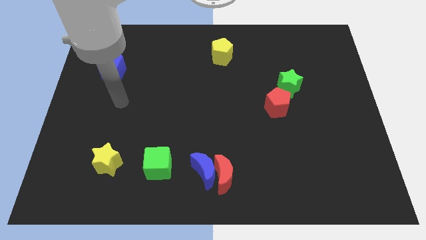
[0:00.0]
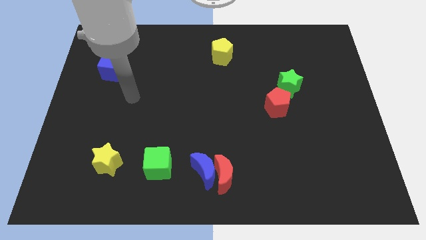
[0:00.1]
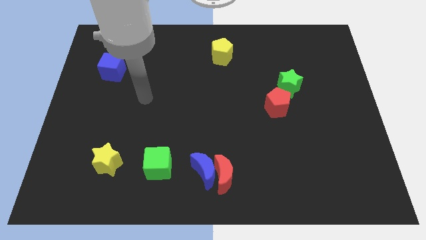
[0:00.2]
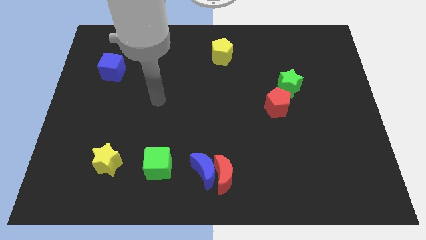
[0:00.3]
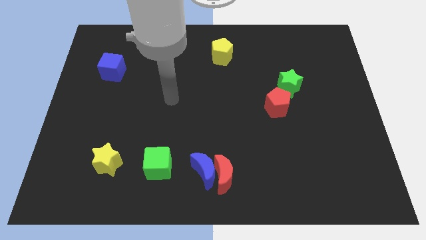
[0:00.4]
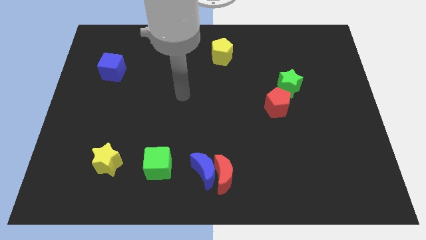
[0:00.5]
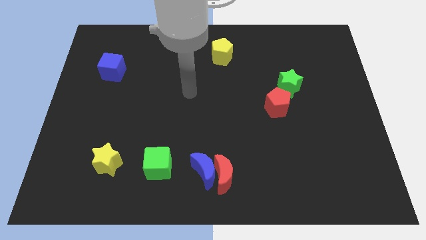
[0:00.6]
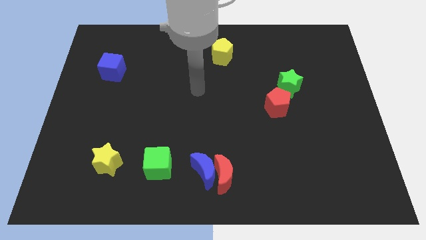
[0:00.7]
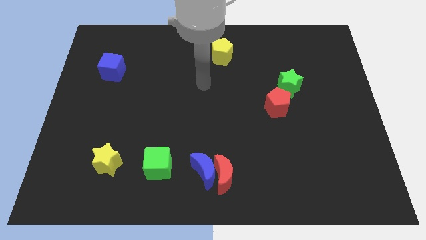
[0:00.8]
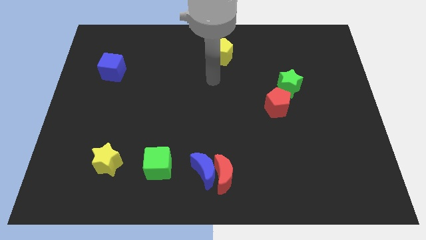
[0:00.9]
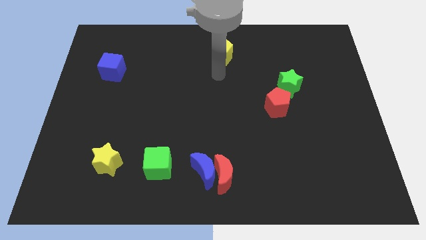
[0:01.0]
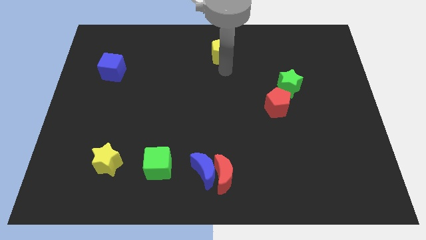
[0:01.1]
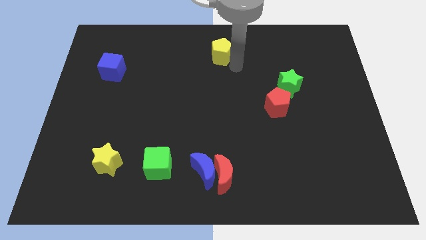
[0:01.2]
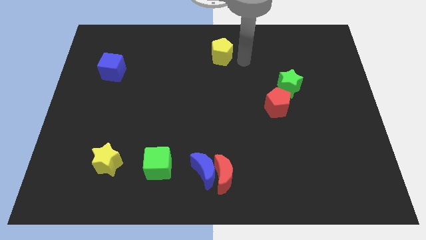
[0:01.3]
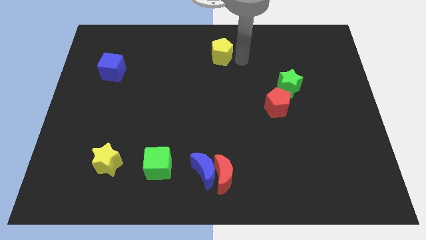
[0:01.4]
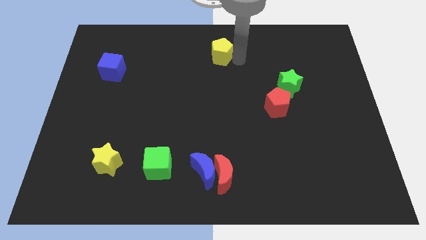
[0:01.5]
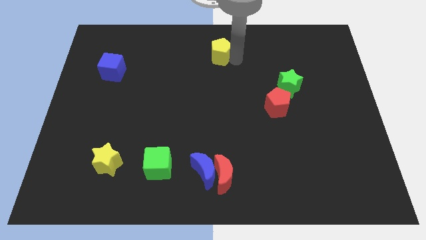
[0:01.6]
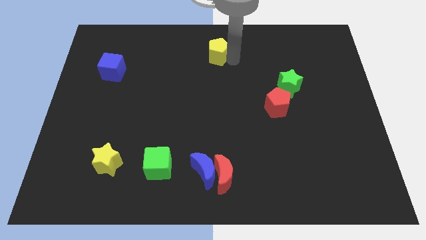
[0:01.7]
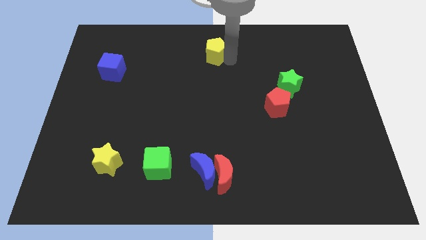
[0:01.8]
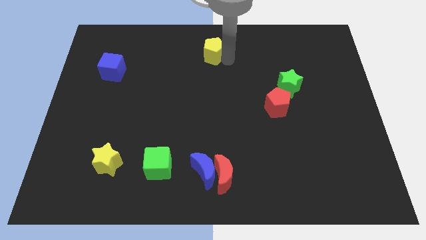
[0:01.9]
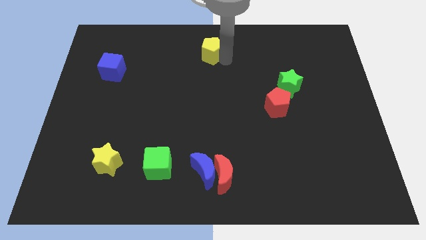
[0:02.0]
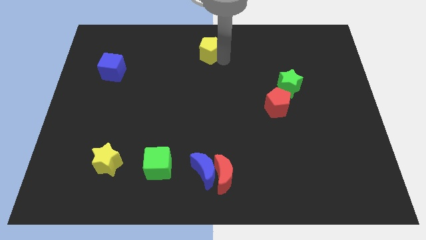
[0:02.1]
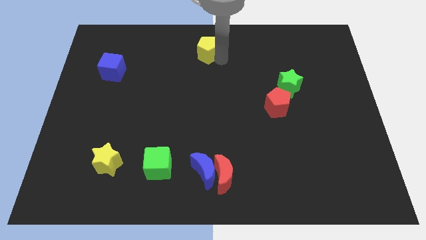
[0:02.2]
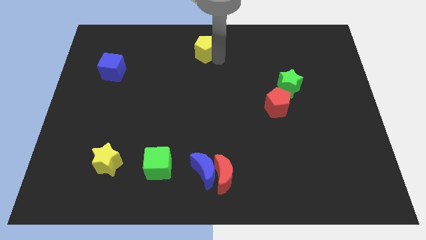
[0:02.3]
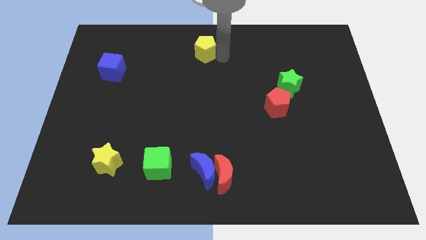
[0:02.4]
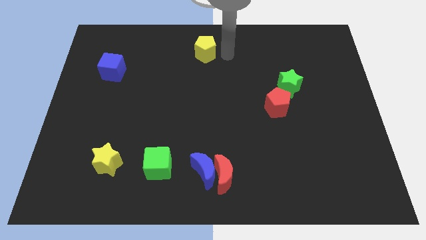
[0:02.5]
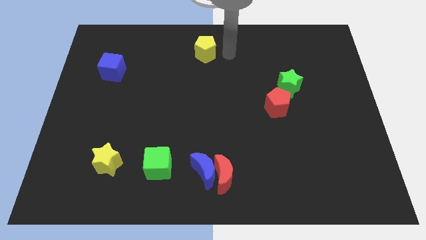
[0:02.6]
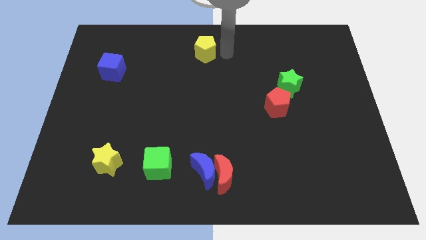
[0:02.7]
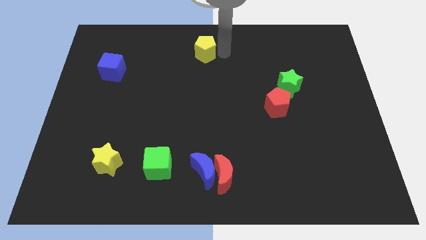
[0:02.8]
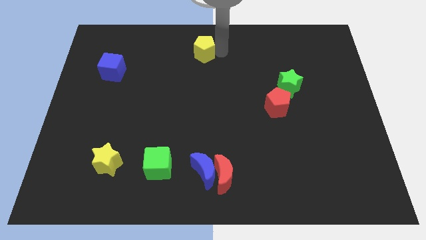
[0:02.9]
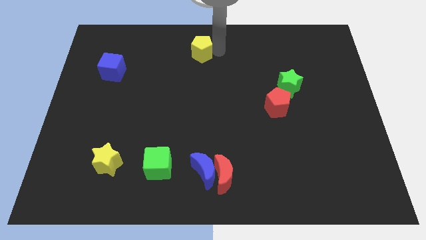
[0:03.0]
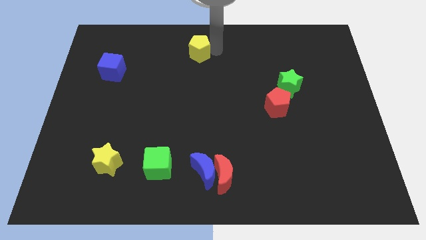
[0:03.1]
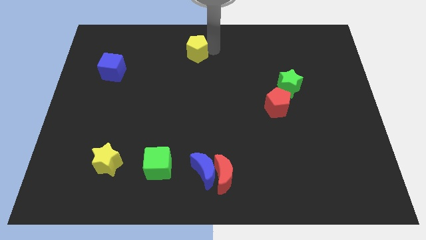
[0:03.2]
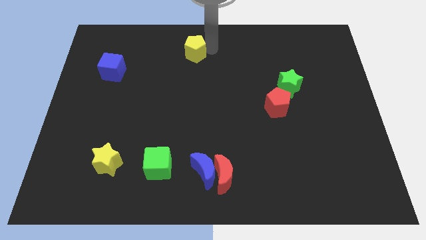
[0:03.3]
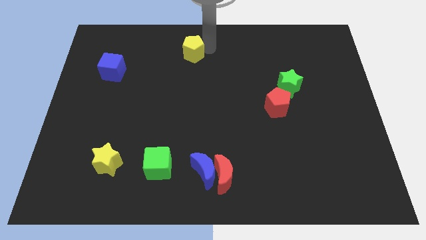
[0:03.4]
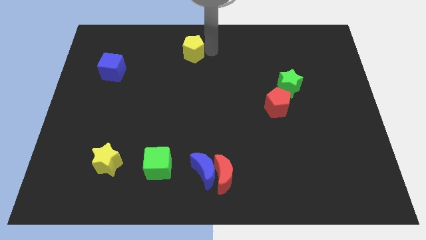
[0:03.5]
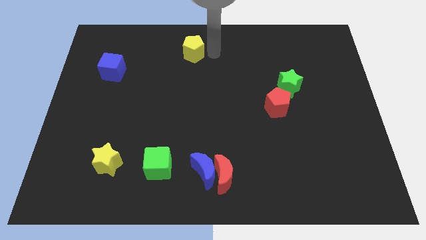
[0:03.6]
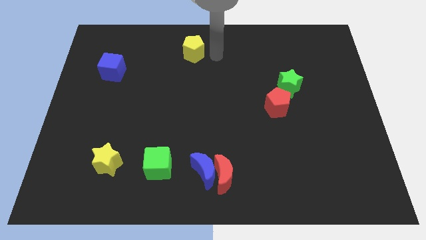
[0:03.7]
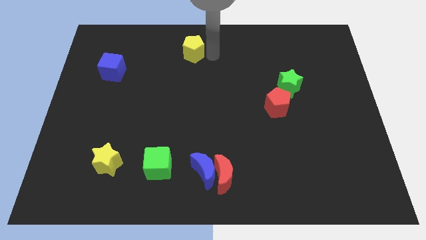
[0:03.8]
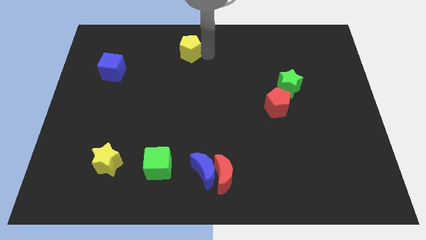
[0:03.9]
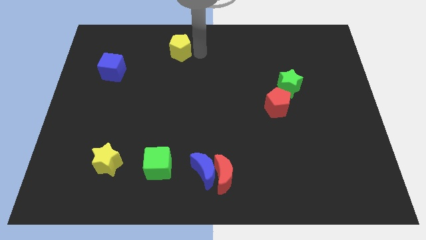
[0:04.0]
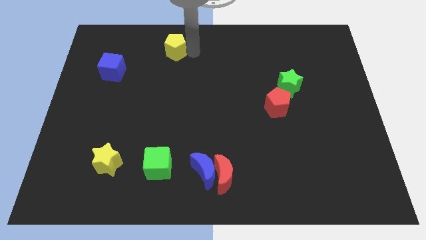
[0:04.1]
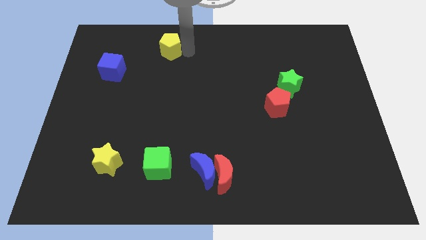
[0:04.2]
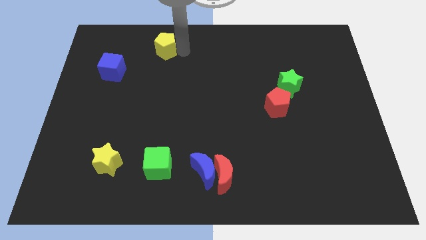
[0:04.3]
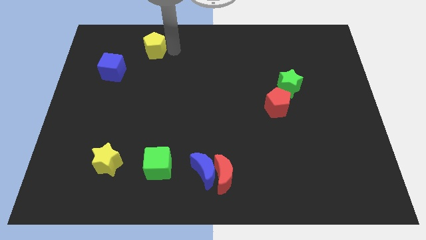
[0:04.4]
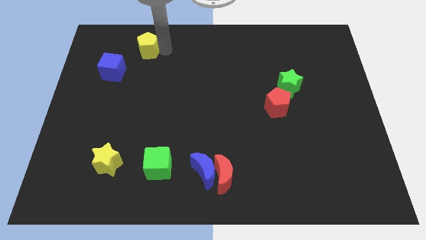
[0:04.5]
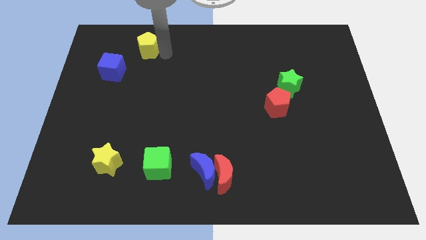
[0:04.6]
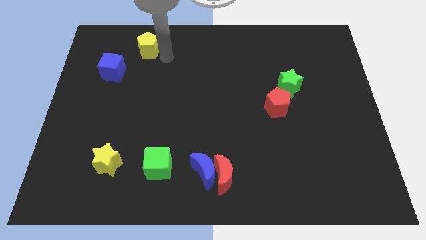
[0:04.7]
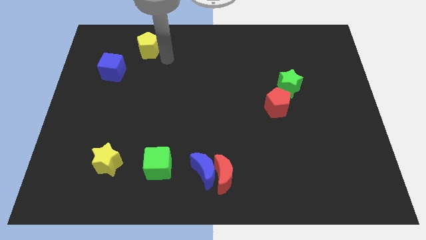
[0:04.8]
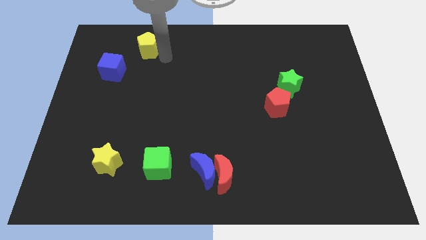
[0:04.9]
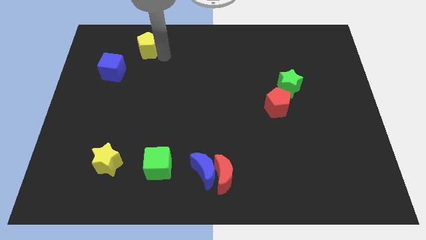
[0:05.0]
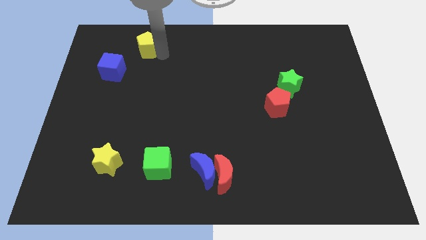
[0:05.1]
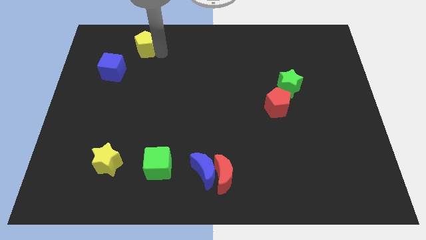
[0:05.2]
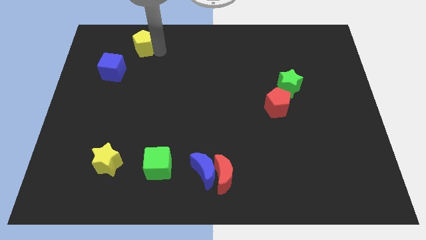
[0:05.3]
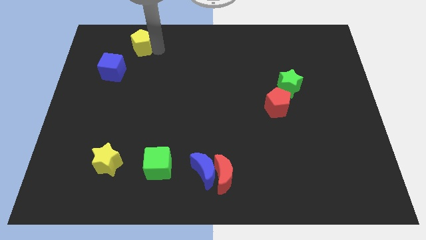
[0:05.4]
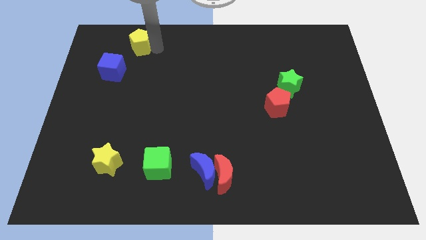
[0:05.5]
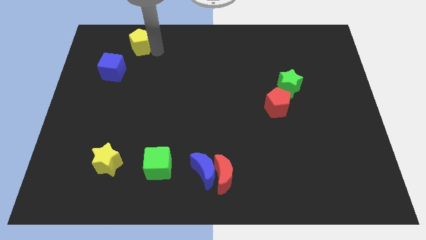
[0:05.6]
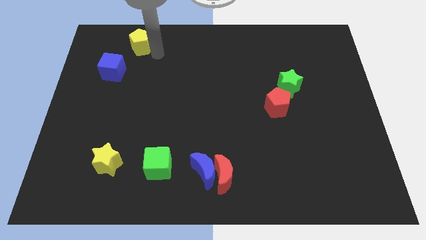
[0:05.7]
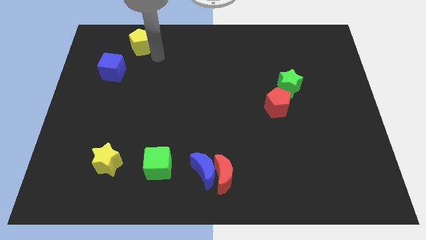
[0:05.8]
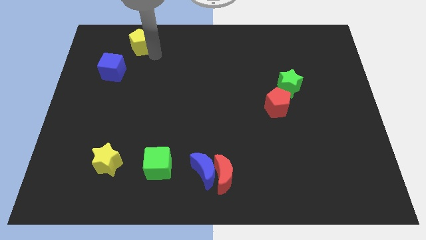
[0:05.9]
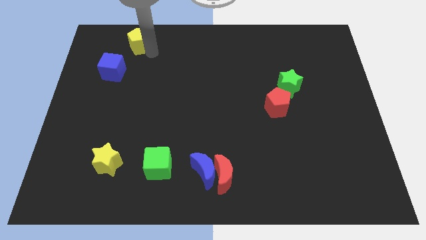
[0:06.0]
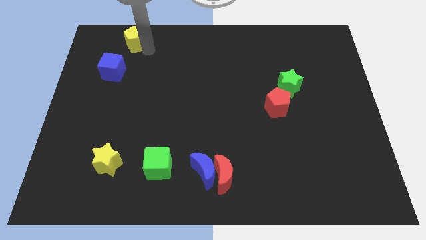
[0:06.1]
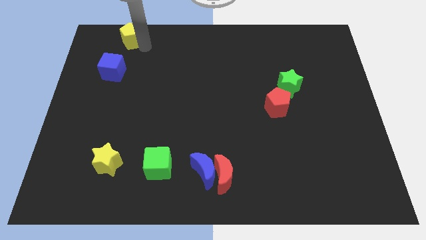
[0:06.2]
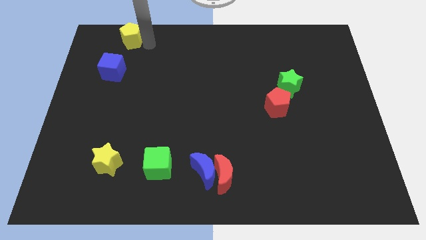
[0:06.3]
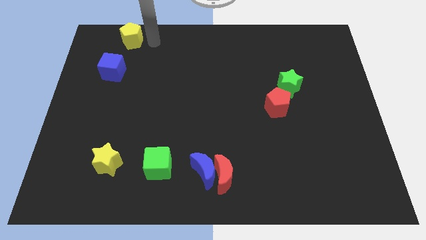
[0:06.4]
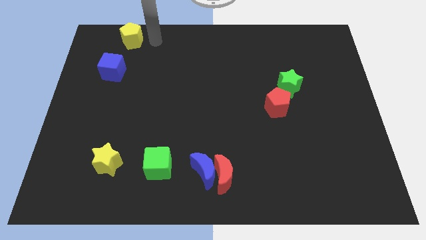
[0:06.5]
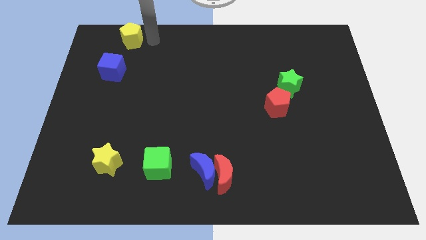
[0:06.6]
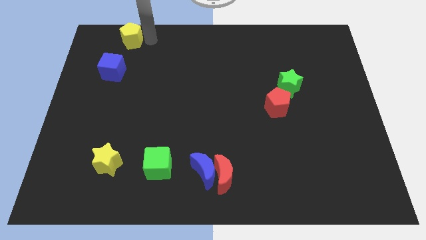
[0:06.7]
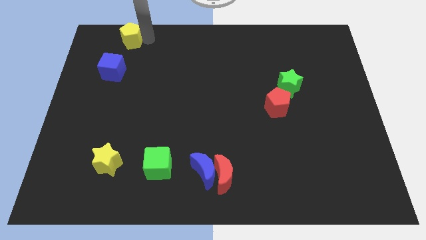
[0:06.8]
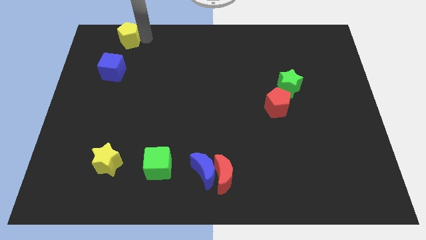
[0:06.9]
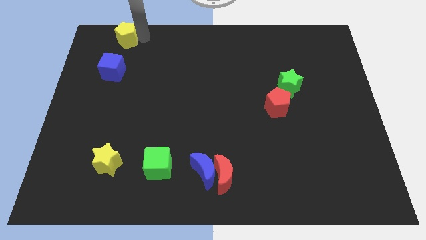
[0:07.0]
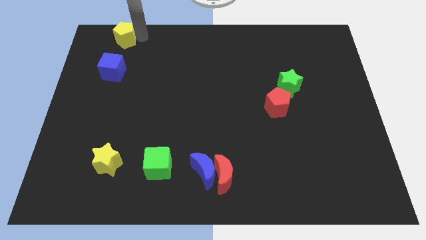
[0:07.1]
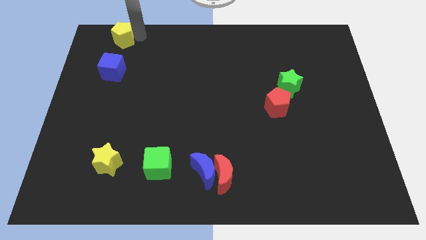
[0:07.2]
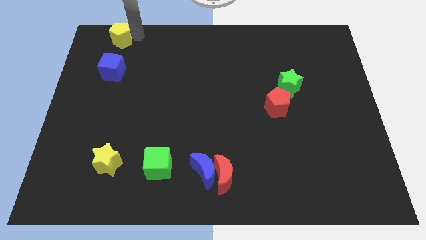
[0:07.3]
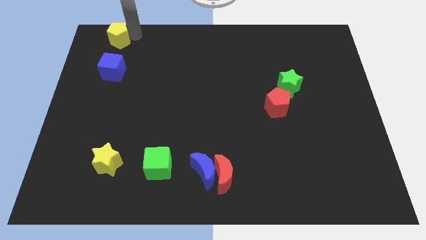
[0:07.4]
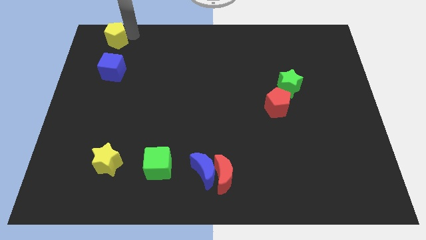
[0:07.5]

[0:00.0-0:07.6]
move the yellow pentagon to the top left corner
